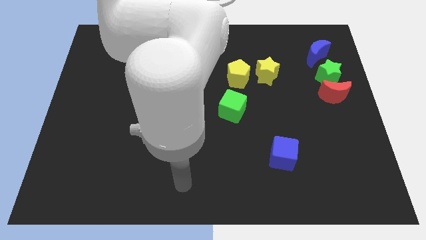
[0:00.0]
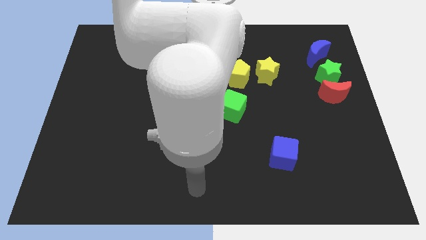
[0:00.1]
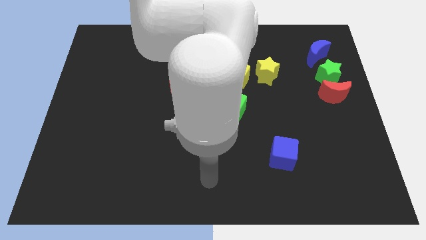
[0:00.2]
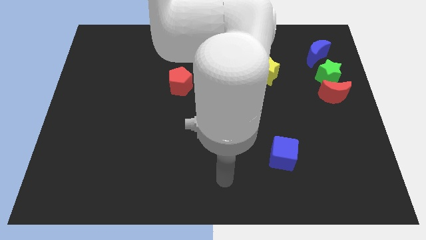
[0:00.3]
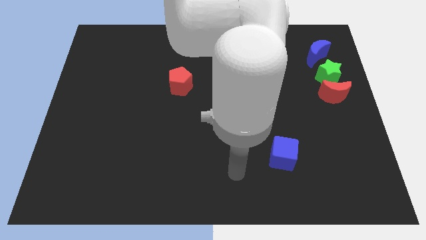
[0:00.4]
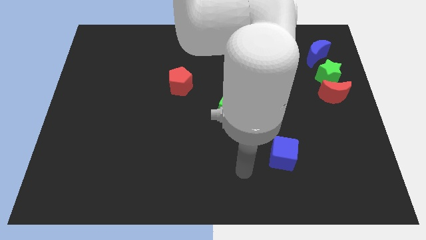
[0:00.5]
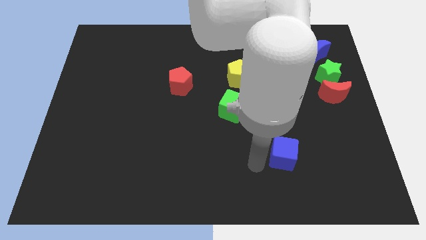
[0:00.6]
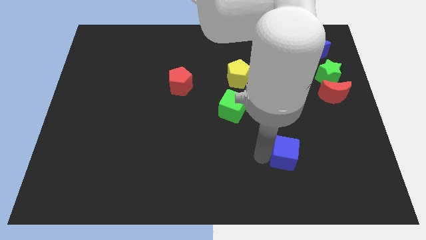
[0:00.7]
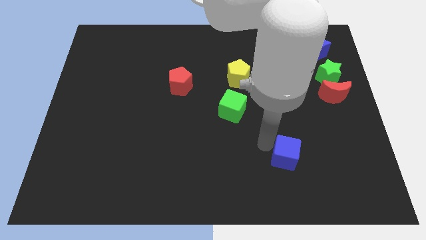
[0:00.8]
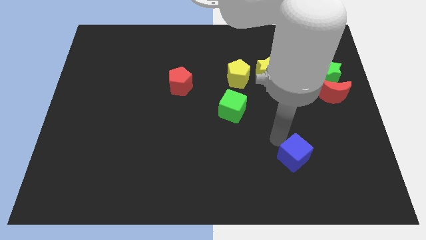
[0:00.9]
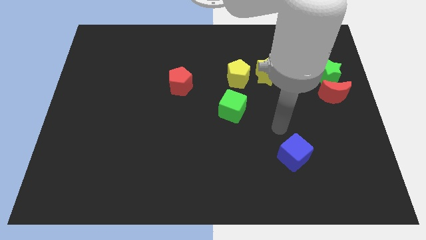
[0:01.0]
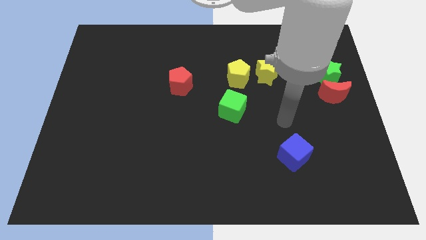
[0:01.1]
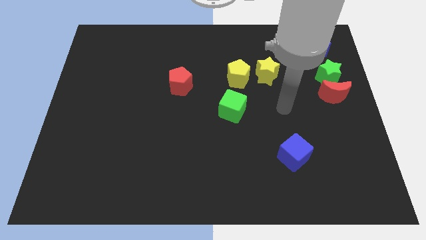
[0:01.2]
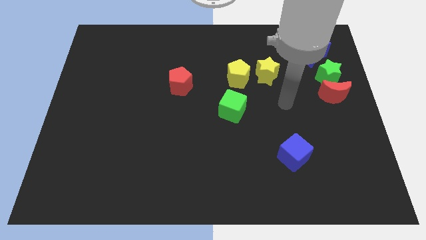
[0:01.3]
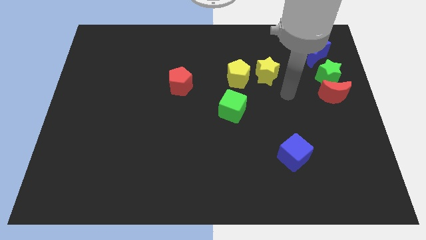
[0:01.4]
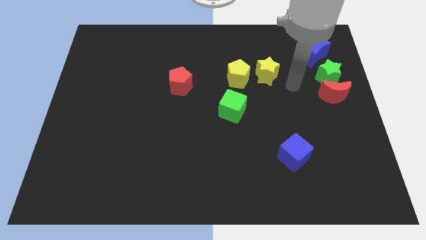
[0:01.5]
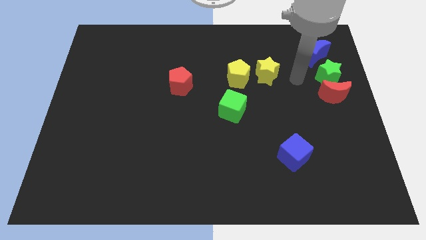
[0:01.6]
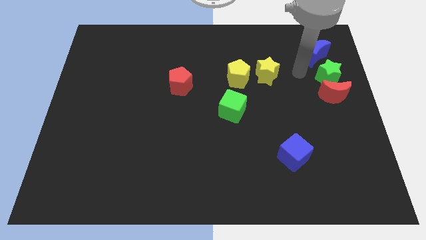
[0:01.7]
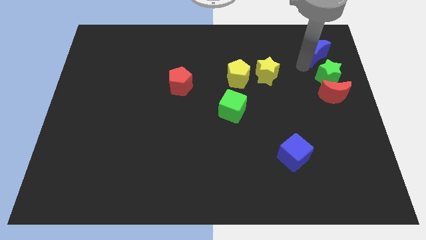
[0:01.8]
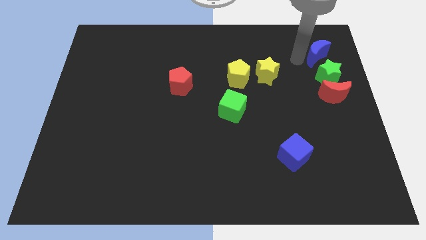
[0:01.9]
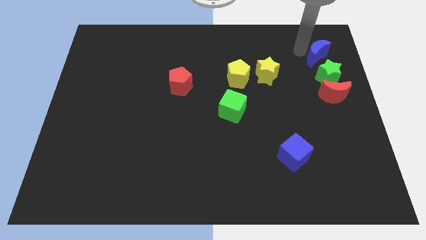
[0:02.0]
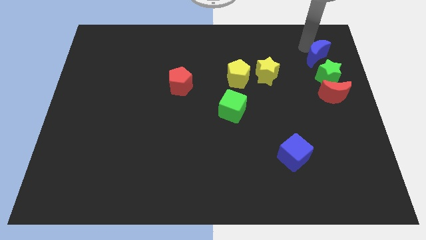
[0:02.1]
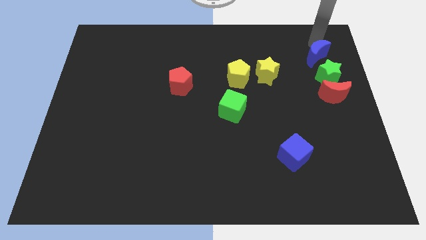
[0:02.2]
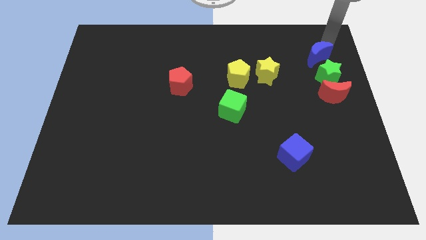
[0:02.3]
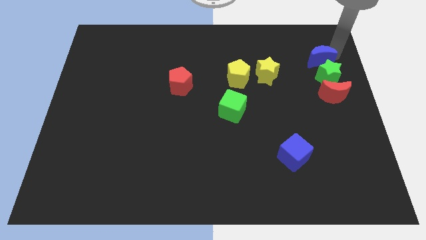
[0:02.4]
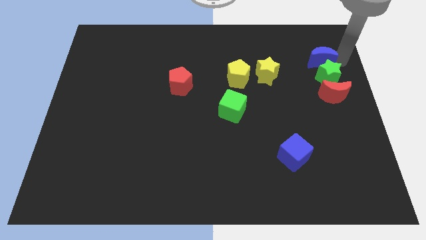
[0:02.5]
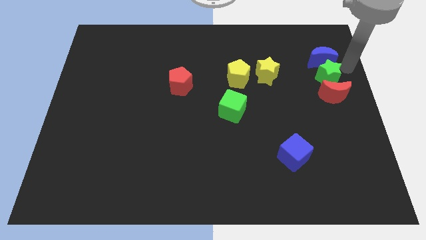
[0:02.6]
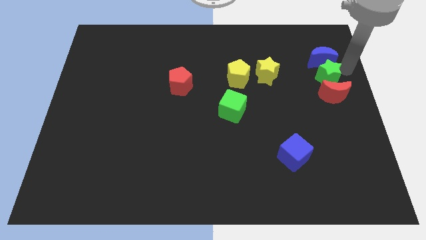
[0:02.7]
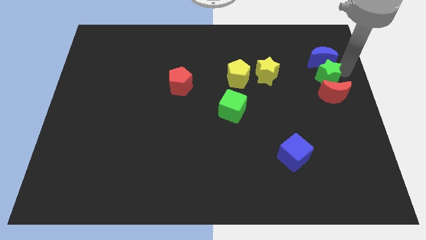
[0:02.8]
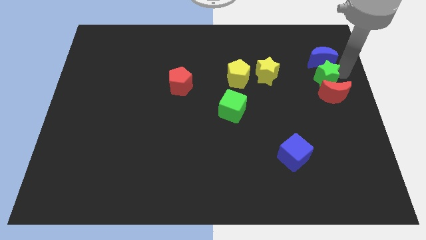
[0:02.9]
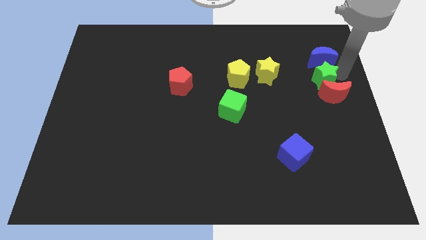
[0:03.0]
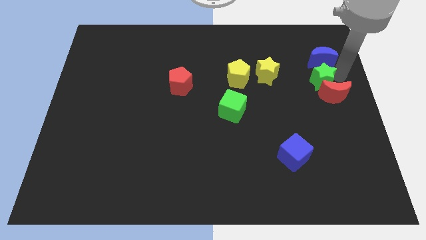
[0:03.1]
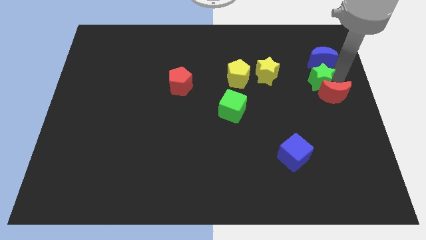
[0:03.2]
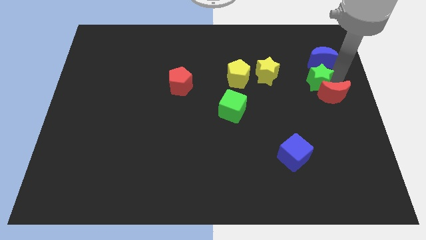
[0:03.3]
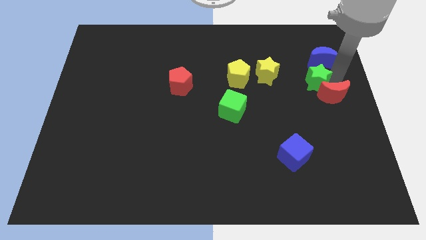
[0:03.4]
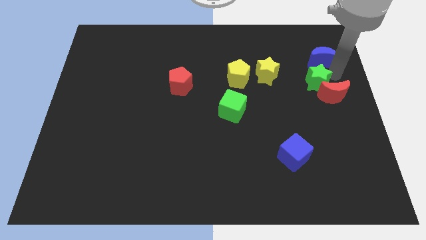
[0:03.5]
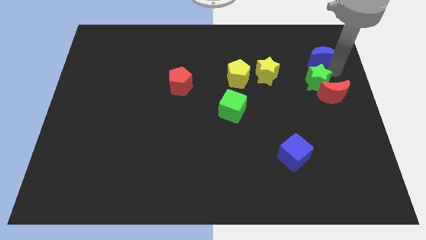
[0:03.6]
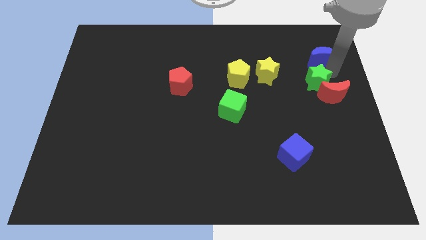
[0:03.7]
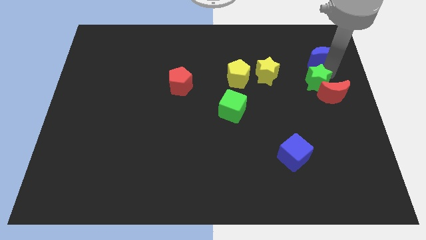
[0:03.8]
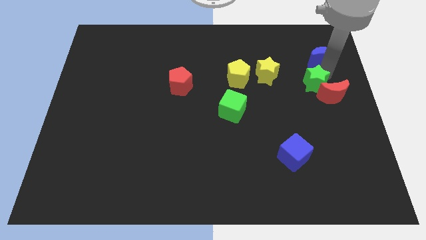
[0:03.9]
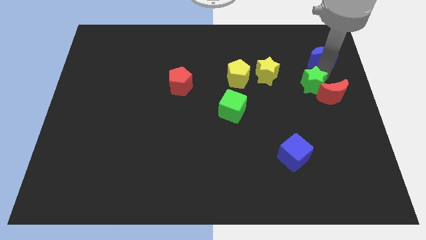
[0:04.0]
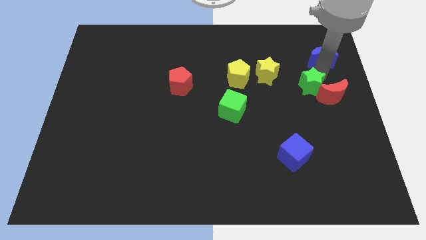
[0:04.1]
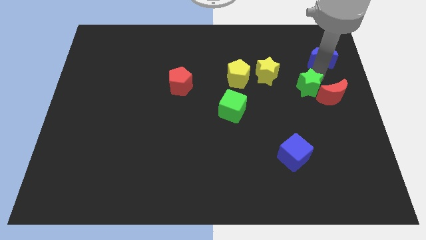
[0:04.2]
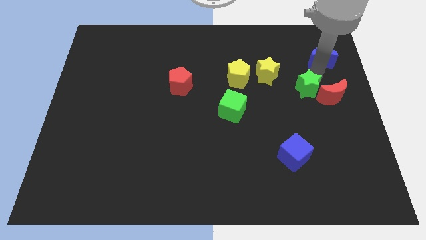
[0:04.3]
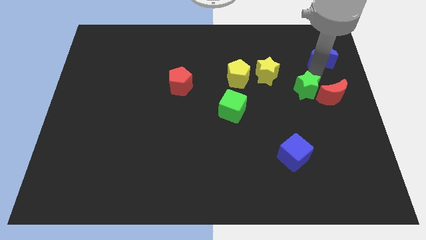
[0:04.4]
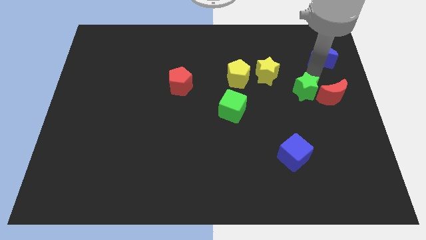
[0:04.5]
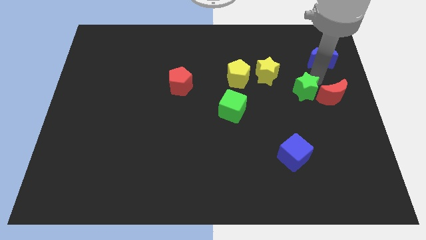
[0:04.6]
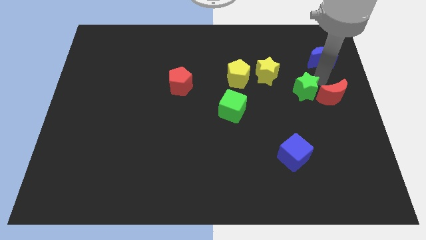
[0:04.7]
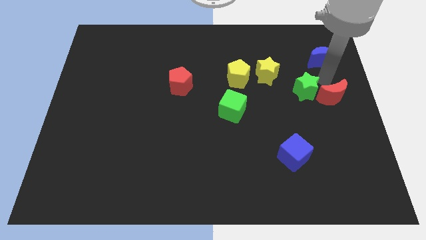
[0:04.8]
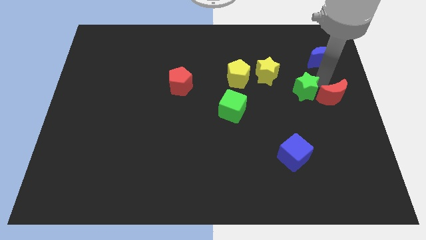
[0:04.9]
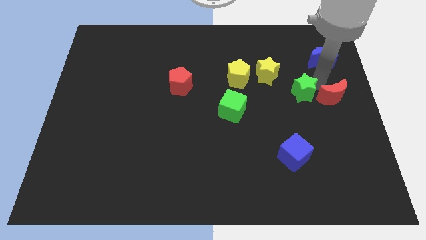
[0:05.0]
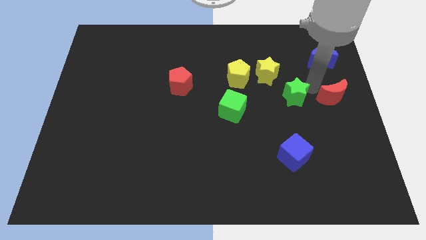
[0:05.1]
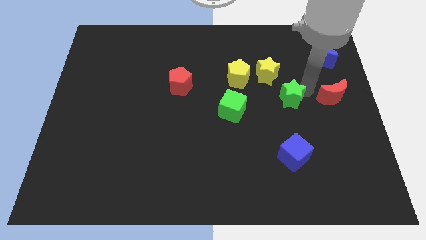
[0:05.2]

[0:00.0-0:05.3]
push the green star to the right of the green cube

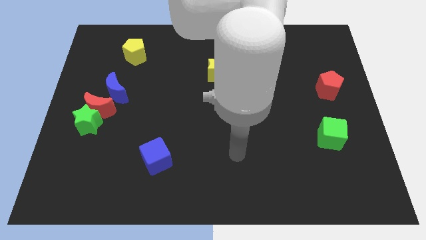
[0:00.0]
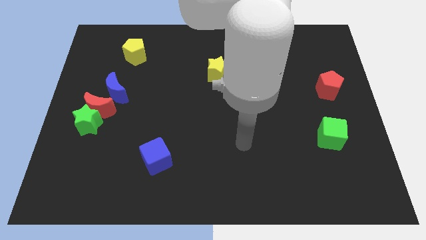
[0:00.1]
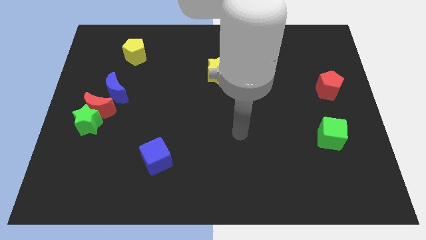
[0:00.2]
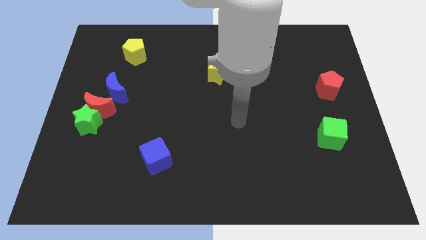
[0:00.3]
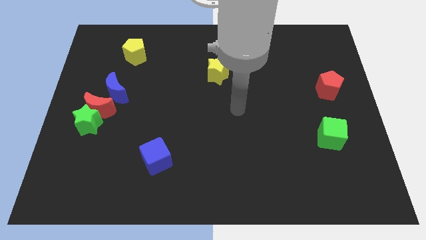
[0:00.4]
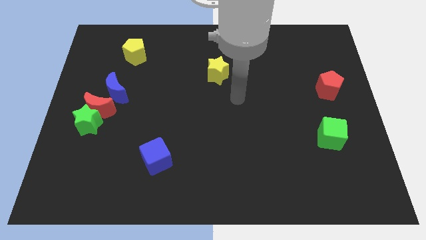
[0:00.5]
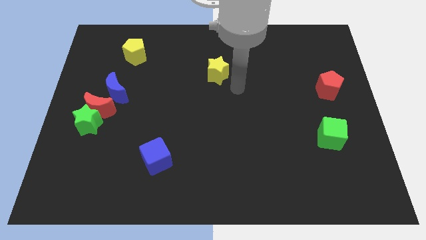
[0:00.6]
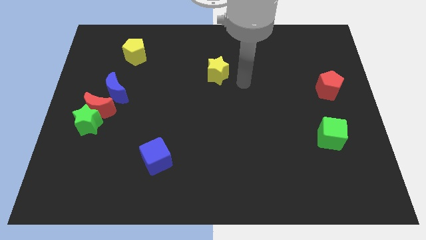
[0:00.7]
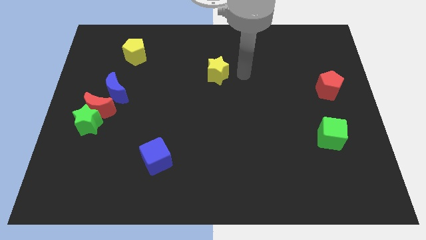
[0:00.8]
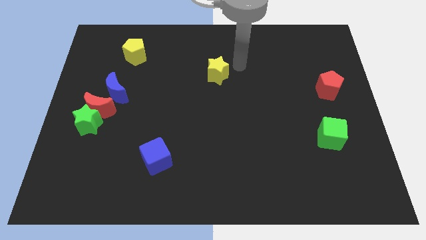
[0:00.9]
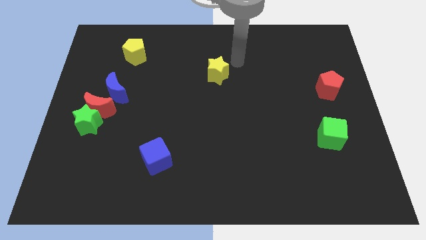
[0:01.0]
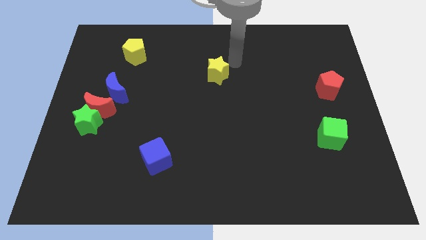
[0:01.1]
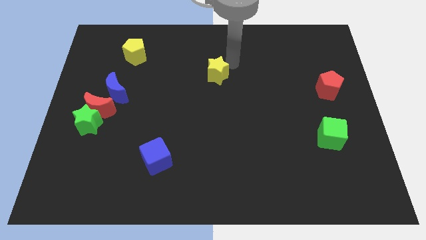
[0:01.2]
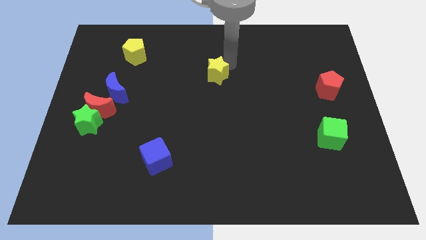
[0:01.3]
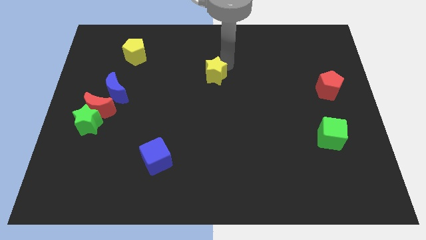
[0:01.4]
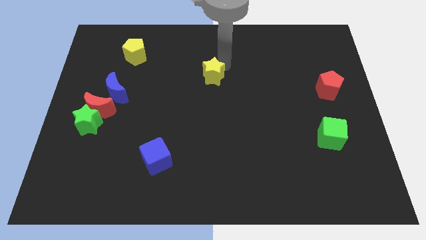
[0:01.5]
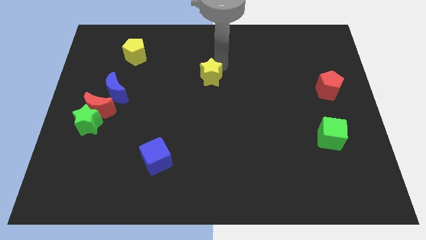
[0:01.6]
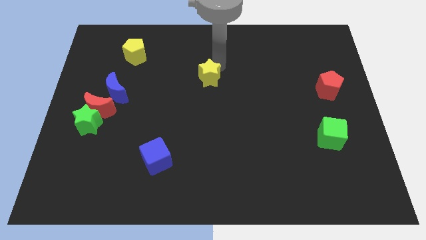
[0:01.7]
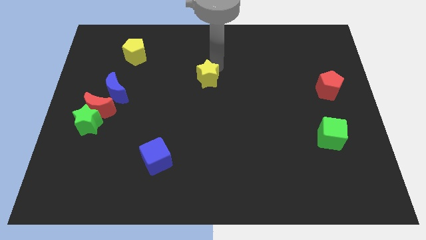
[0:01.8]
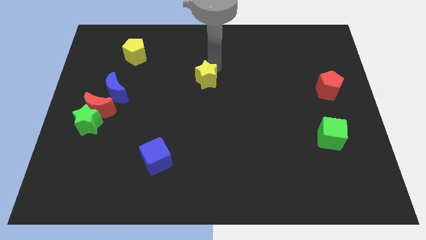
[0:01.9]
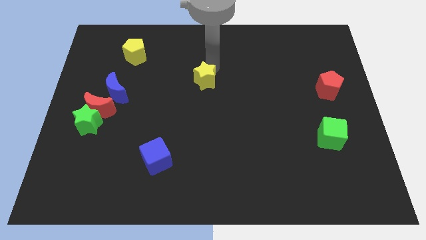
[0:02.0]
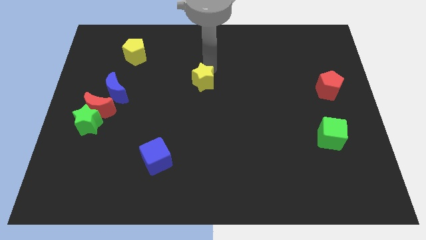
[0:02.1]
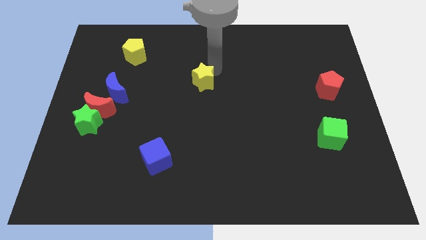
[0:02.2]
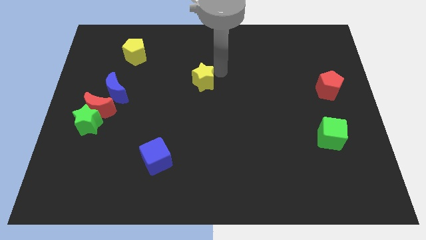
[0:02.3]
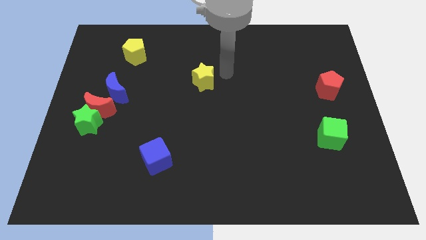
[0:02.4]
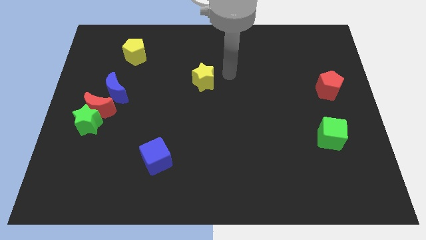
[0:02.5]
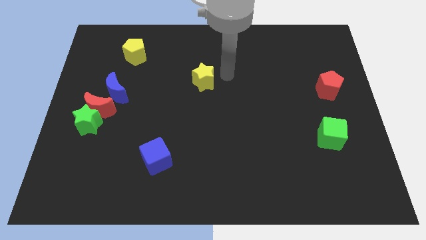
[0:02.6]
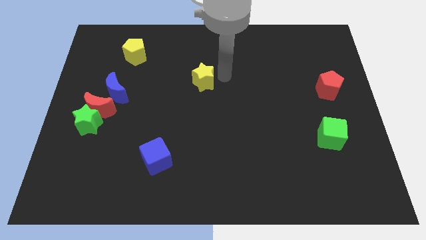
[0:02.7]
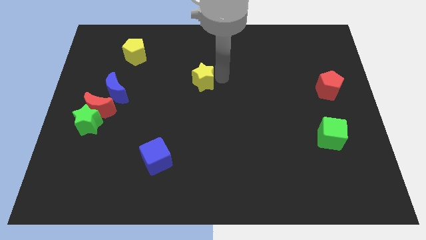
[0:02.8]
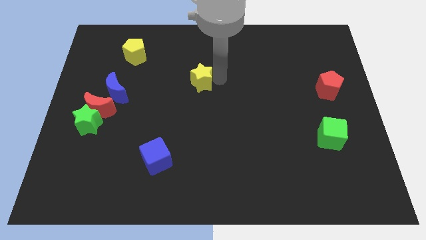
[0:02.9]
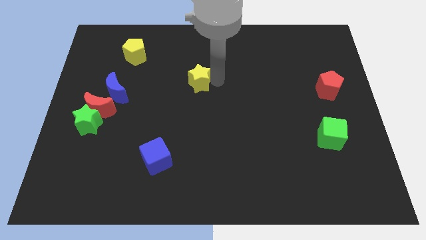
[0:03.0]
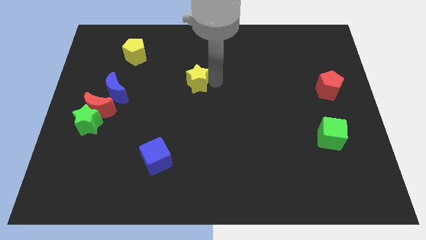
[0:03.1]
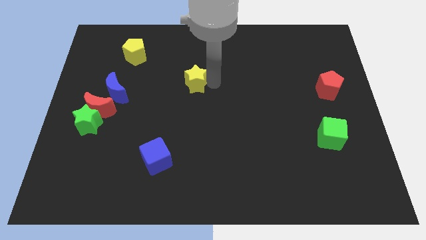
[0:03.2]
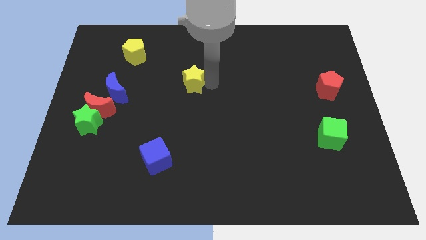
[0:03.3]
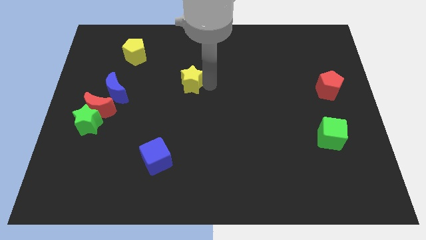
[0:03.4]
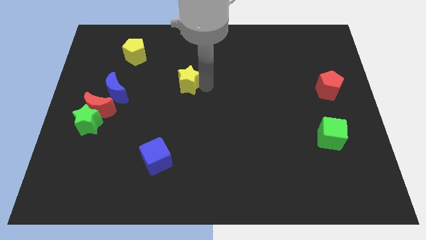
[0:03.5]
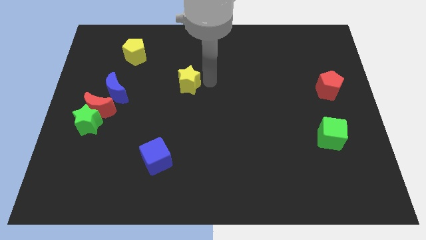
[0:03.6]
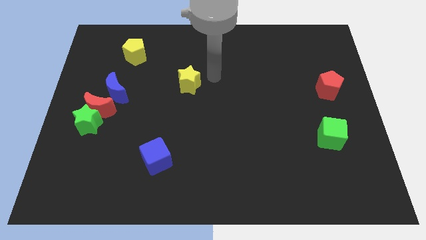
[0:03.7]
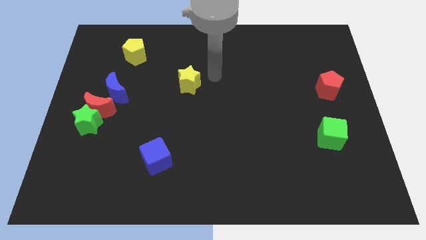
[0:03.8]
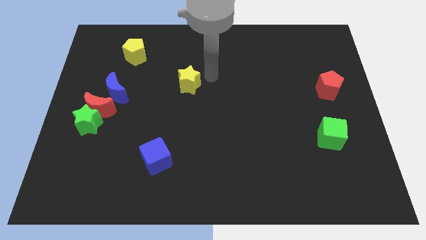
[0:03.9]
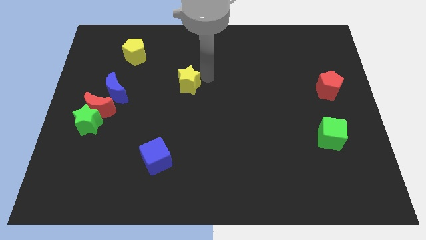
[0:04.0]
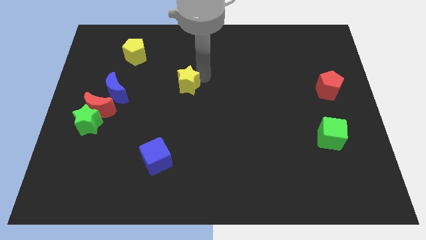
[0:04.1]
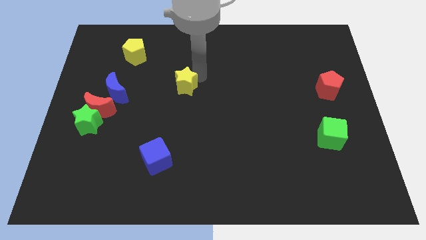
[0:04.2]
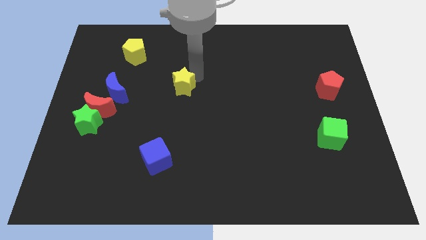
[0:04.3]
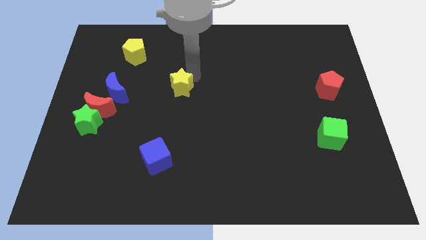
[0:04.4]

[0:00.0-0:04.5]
slide the yellow star to the right side of the blue moon
